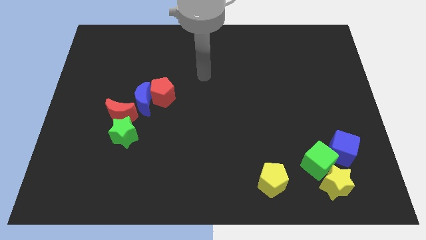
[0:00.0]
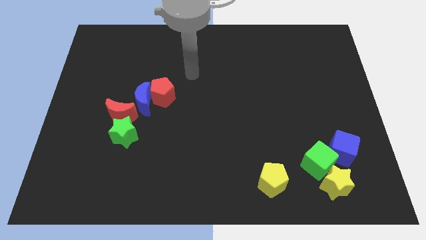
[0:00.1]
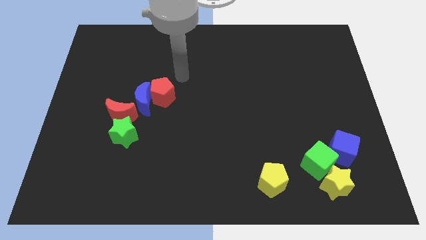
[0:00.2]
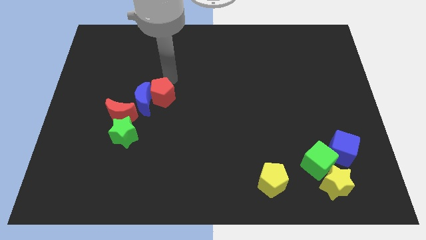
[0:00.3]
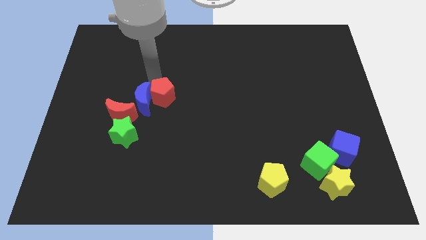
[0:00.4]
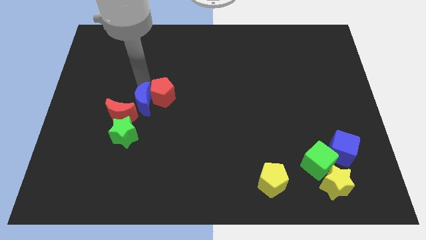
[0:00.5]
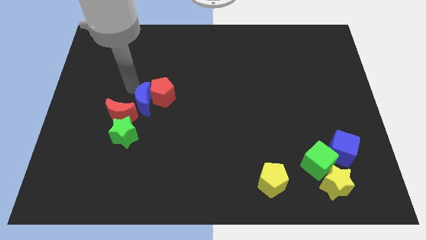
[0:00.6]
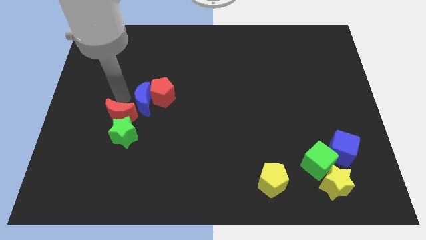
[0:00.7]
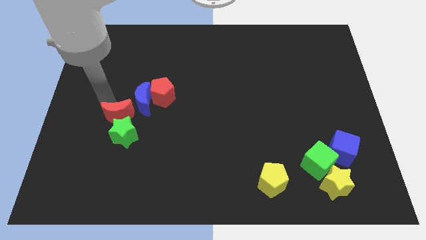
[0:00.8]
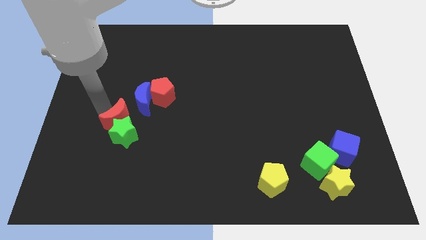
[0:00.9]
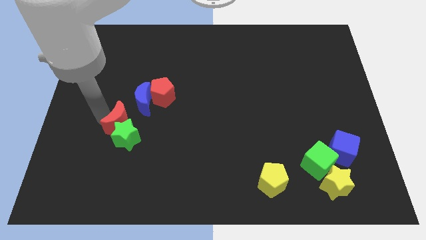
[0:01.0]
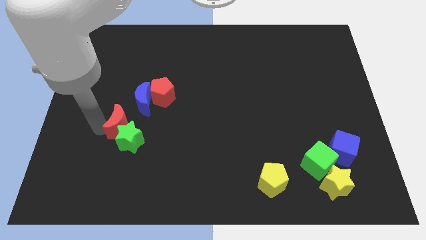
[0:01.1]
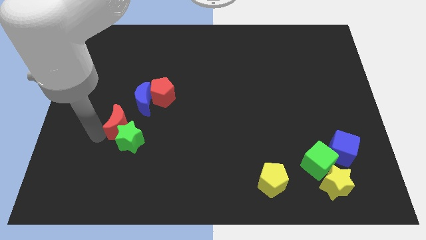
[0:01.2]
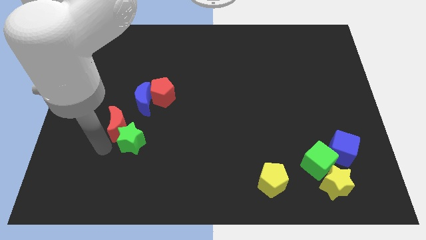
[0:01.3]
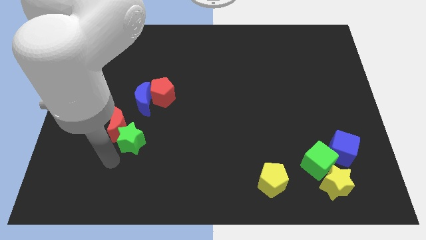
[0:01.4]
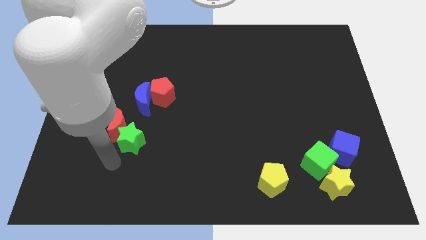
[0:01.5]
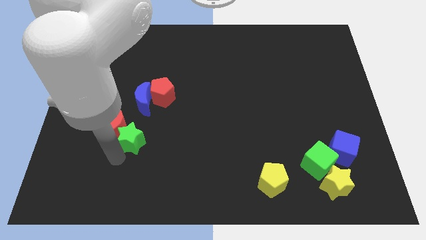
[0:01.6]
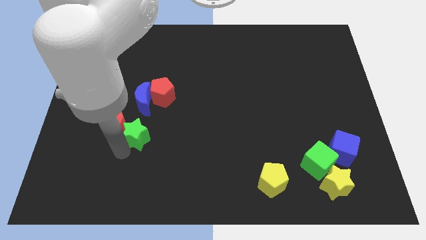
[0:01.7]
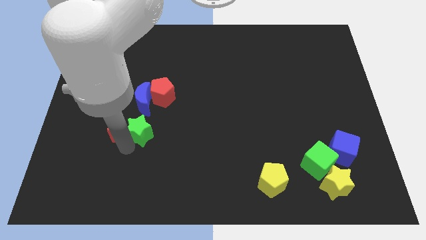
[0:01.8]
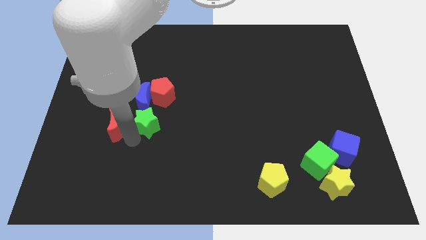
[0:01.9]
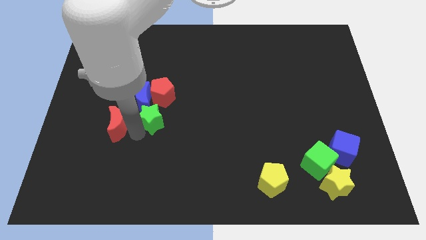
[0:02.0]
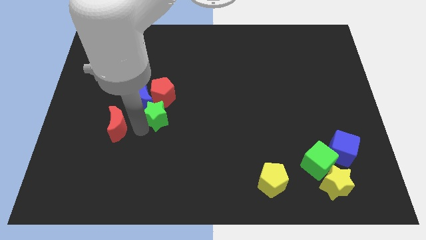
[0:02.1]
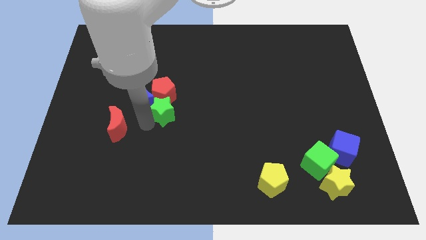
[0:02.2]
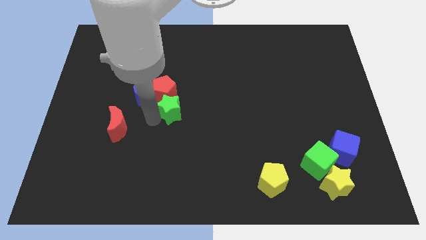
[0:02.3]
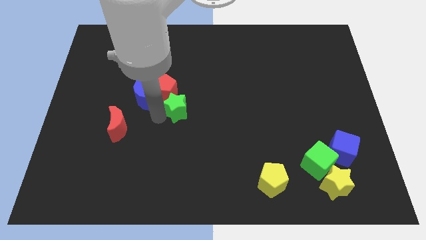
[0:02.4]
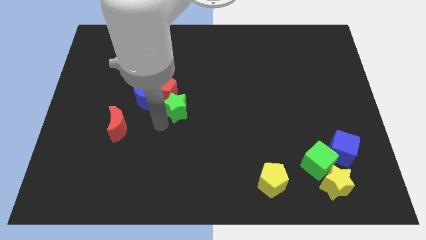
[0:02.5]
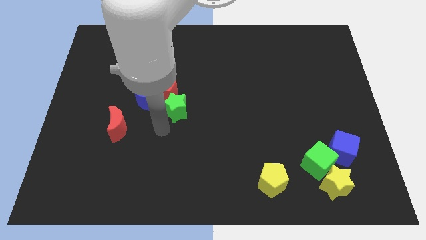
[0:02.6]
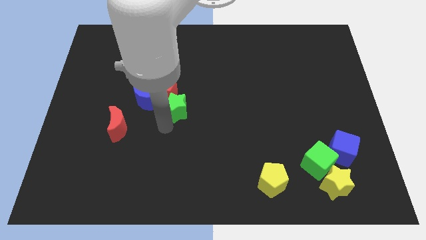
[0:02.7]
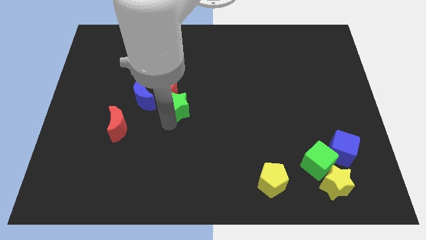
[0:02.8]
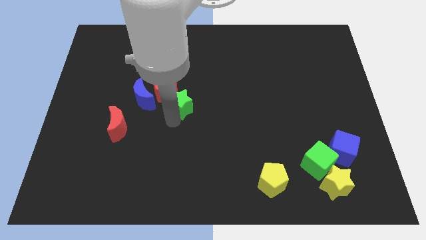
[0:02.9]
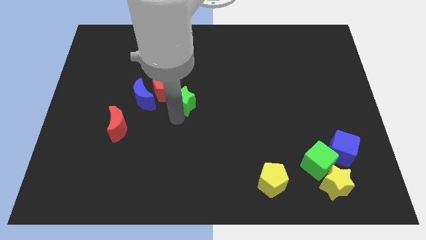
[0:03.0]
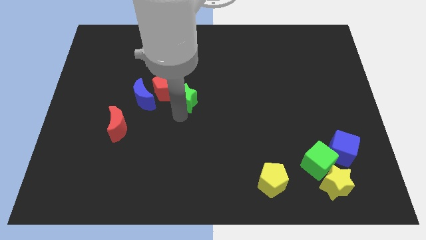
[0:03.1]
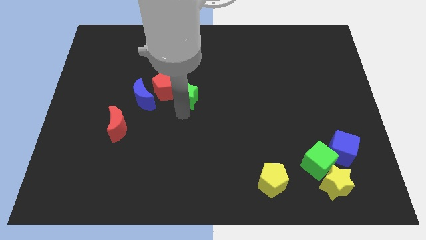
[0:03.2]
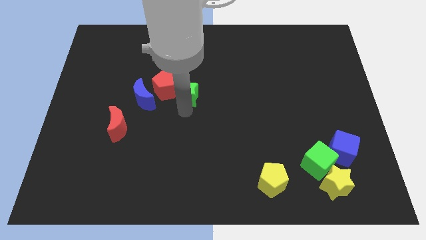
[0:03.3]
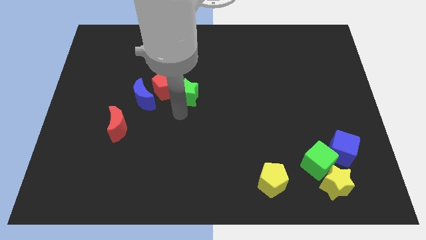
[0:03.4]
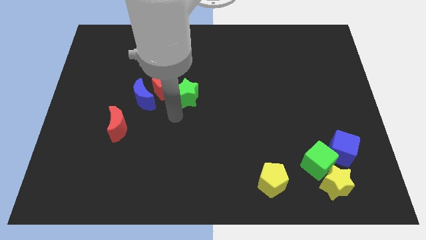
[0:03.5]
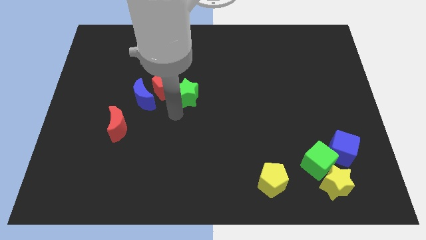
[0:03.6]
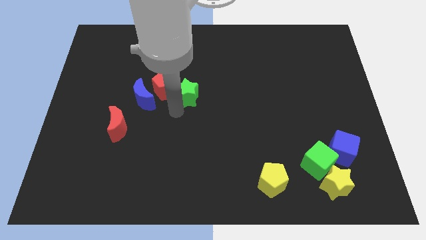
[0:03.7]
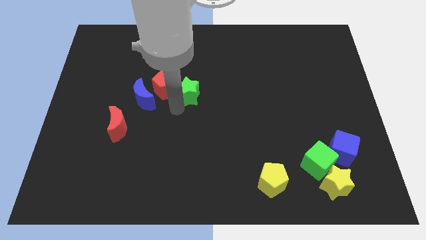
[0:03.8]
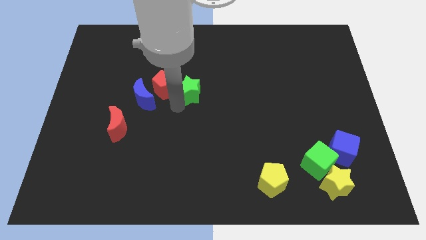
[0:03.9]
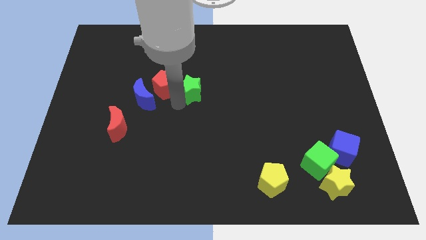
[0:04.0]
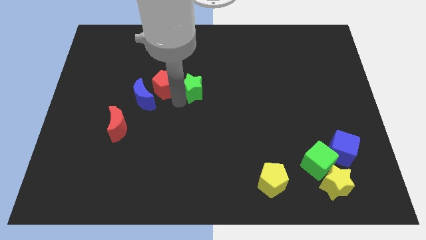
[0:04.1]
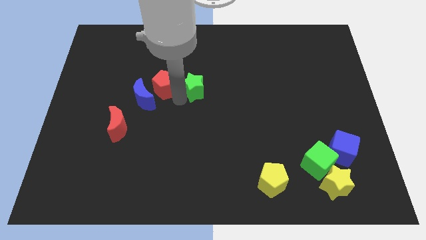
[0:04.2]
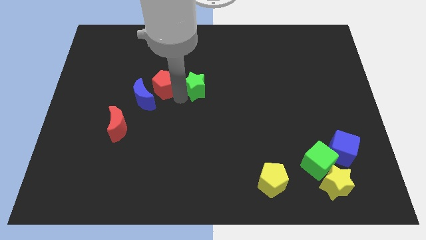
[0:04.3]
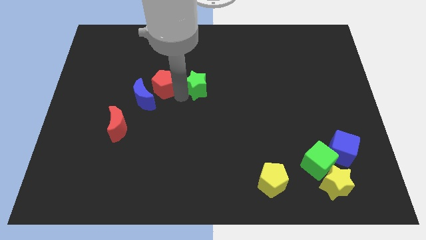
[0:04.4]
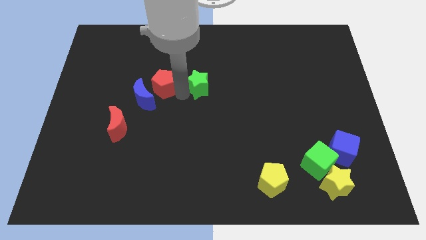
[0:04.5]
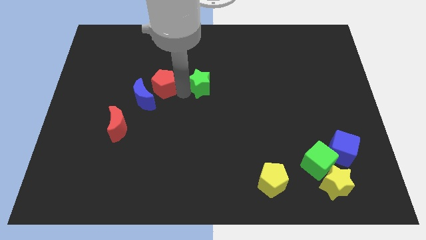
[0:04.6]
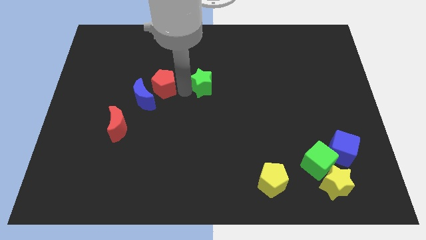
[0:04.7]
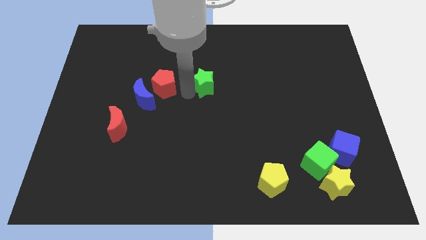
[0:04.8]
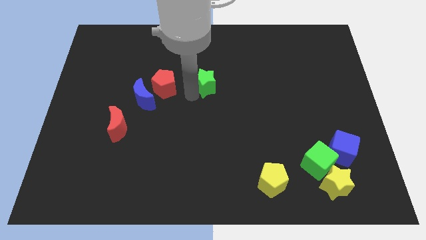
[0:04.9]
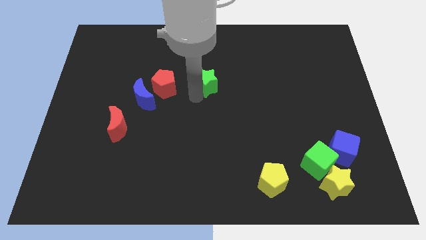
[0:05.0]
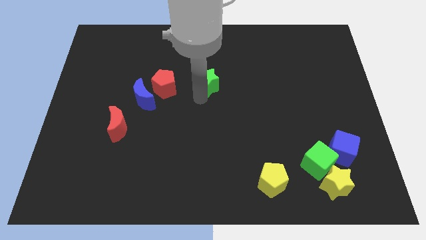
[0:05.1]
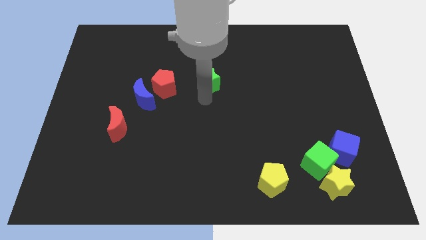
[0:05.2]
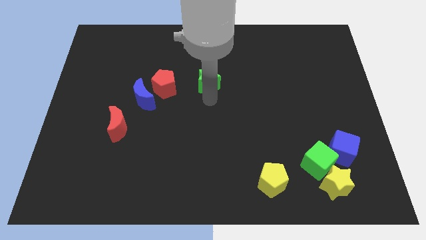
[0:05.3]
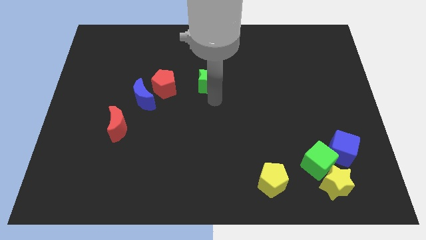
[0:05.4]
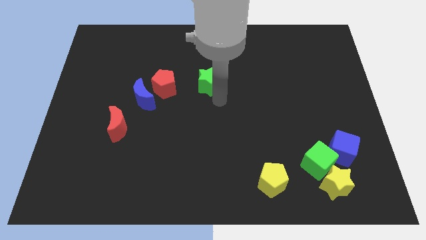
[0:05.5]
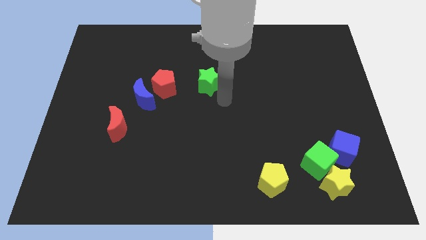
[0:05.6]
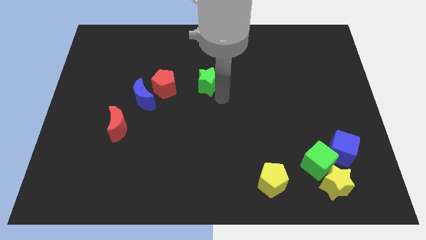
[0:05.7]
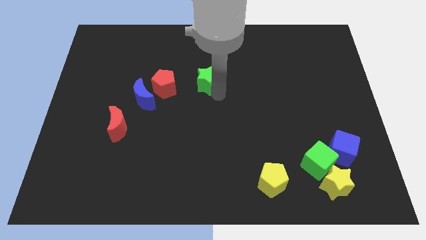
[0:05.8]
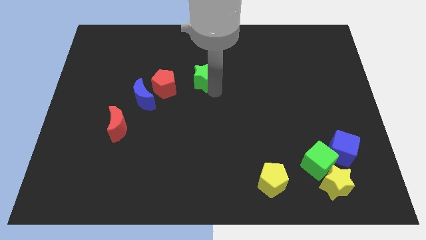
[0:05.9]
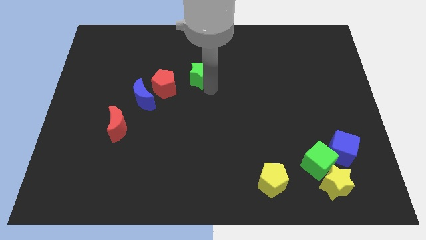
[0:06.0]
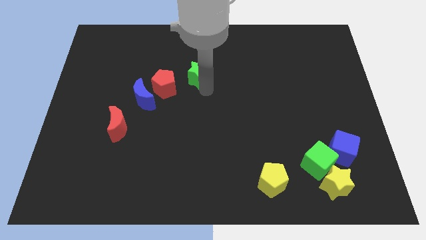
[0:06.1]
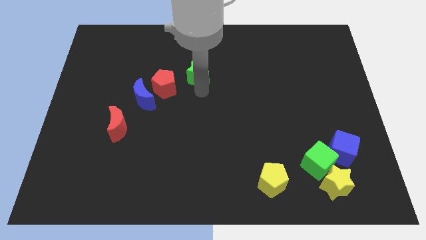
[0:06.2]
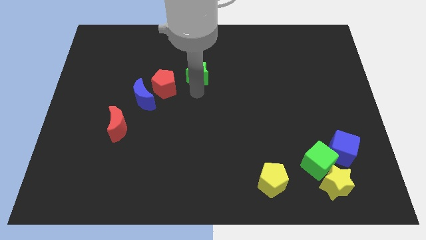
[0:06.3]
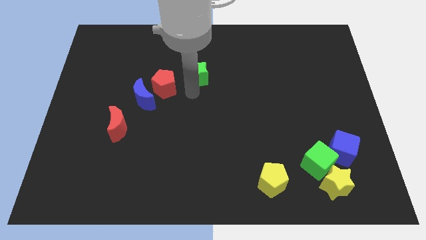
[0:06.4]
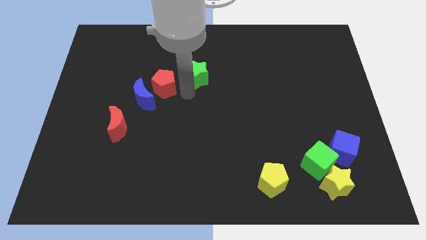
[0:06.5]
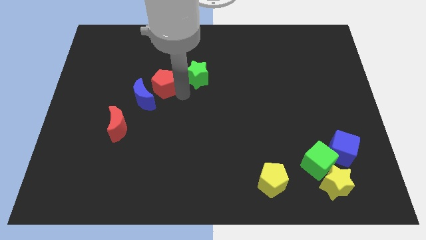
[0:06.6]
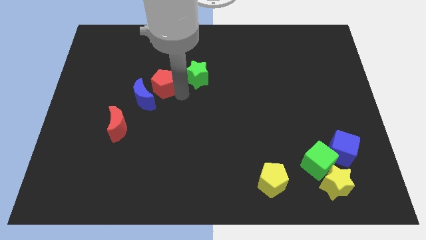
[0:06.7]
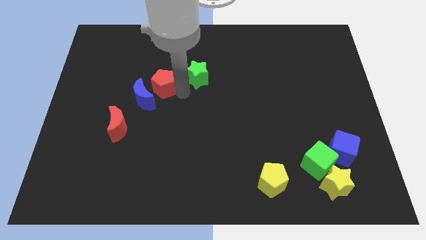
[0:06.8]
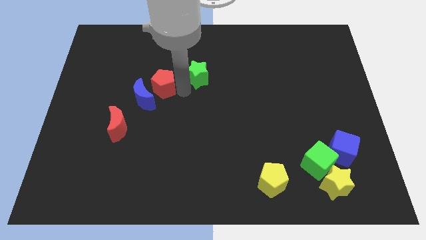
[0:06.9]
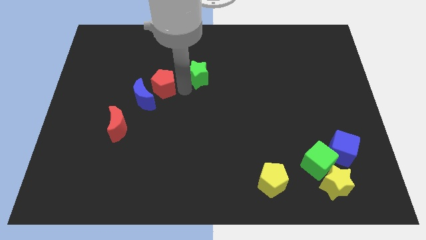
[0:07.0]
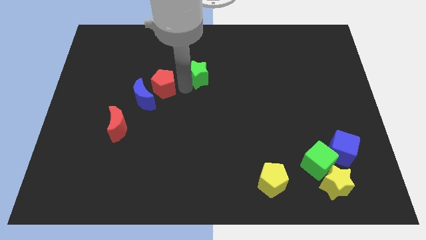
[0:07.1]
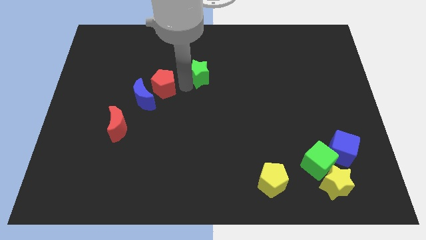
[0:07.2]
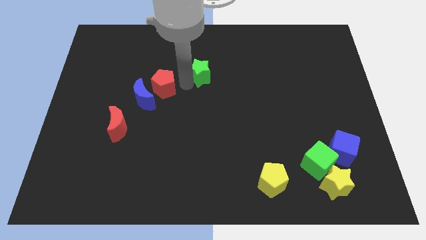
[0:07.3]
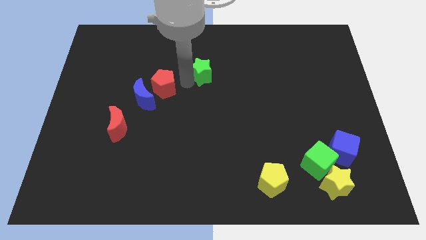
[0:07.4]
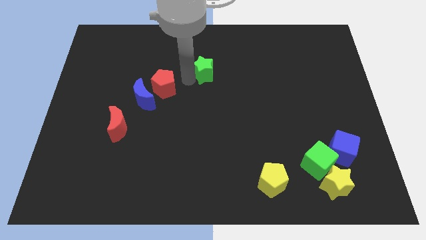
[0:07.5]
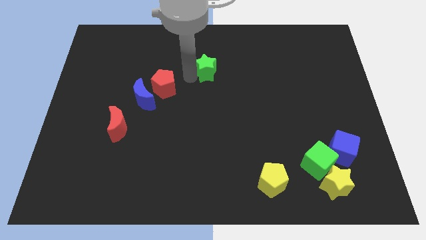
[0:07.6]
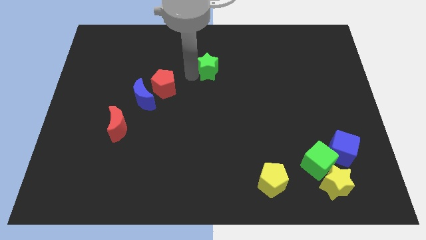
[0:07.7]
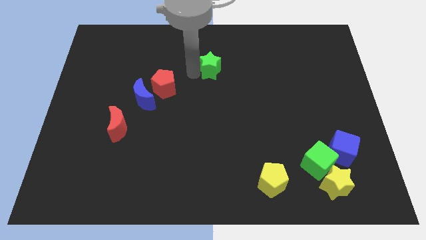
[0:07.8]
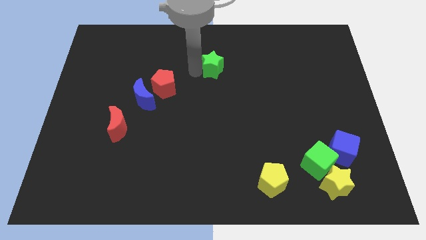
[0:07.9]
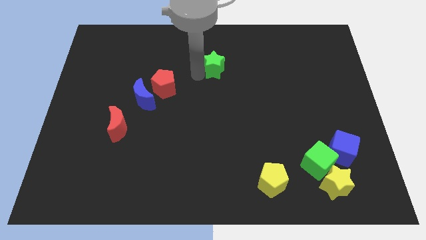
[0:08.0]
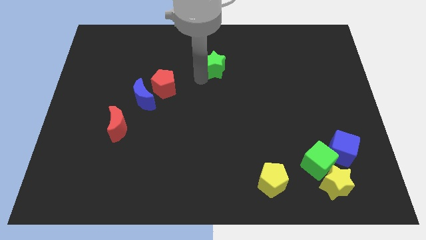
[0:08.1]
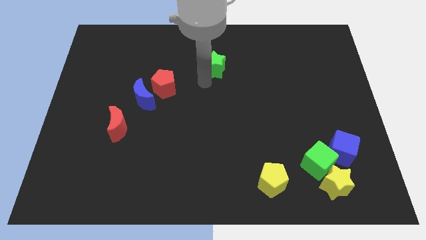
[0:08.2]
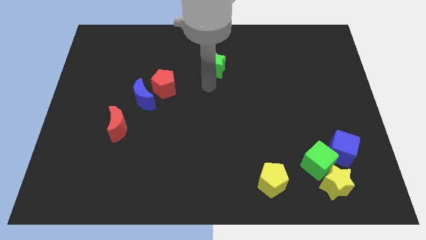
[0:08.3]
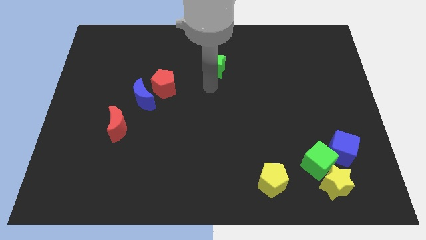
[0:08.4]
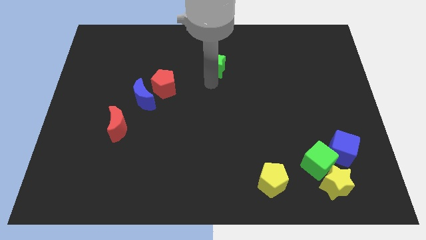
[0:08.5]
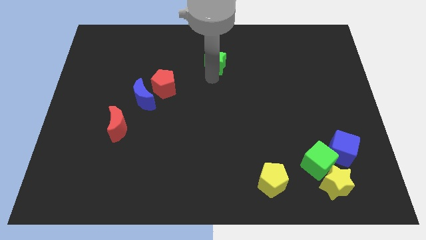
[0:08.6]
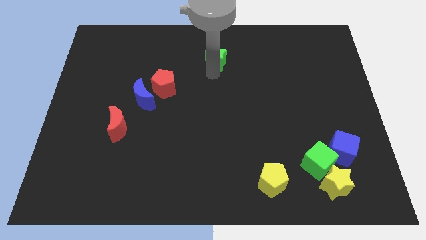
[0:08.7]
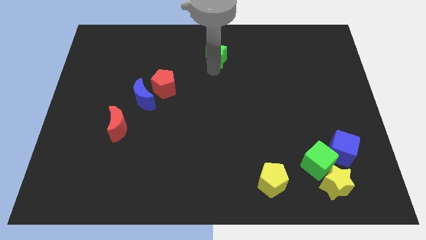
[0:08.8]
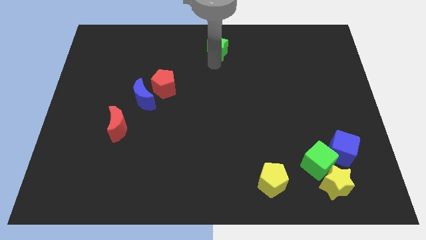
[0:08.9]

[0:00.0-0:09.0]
move the green star to the top
